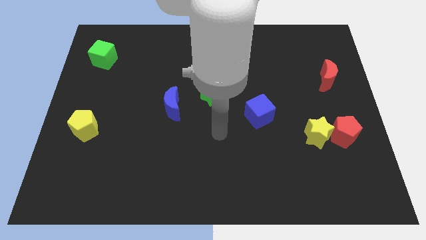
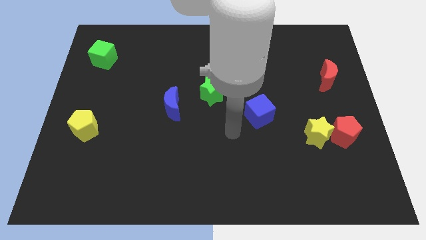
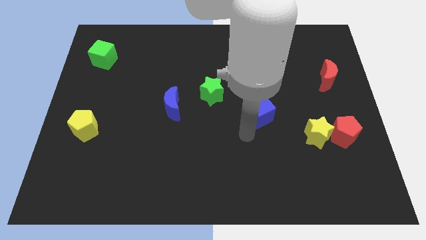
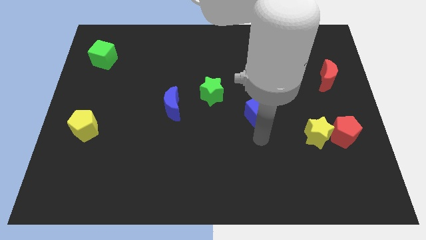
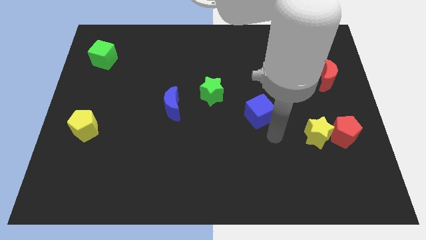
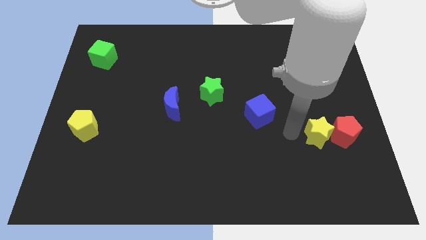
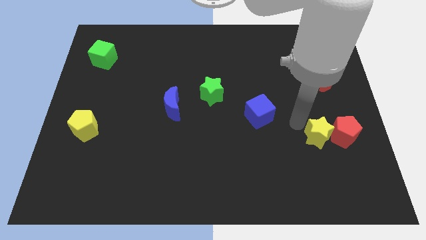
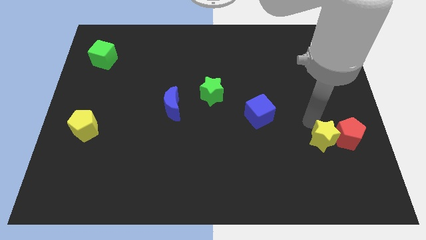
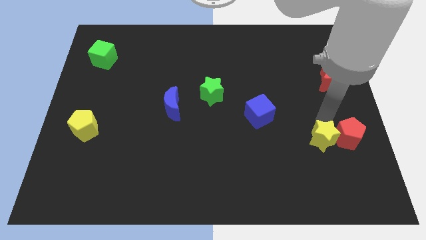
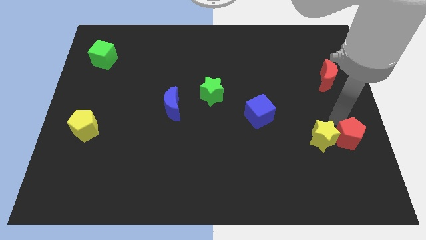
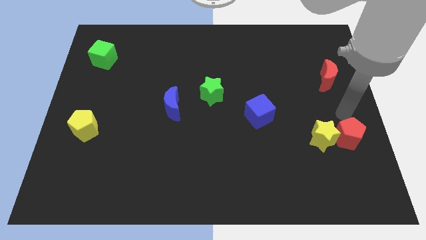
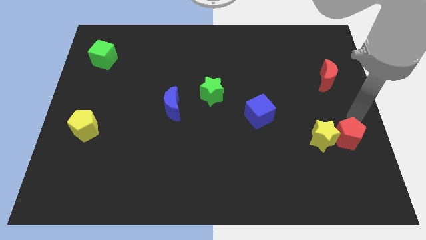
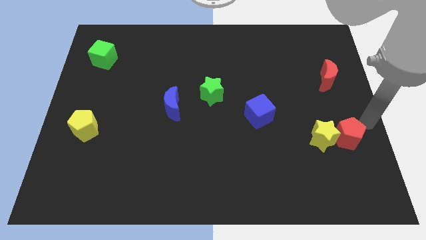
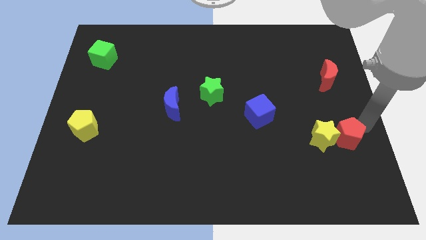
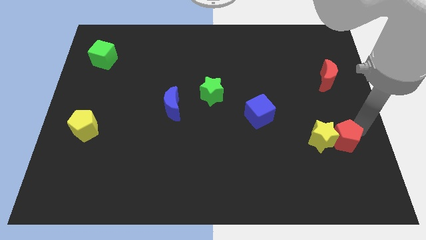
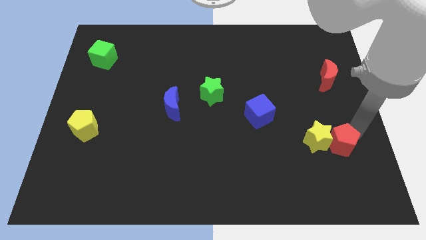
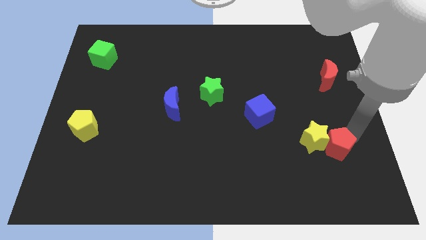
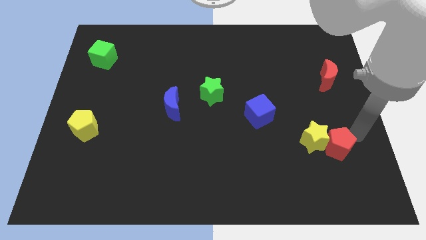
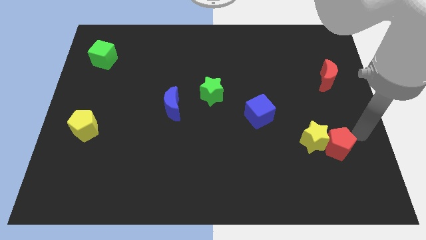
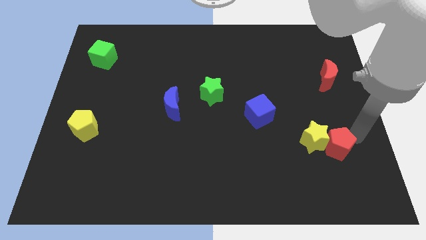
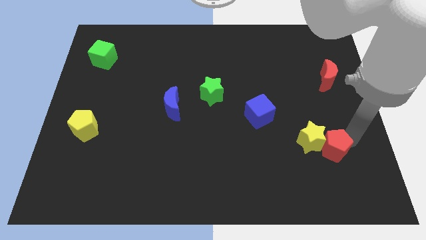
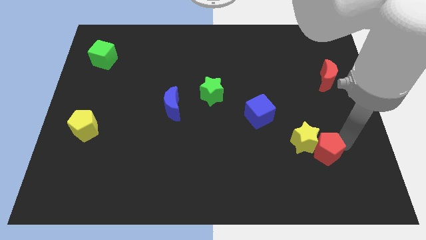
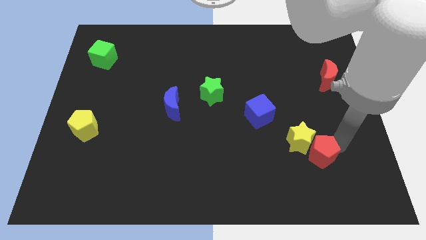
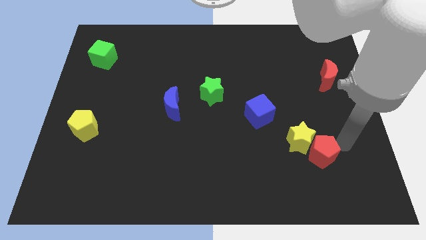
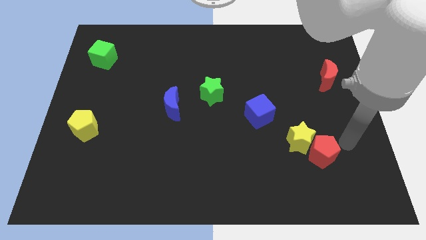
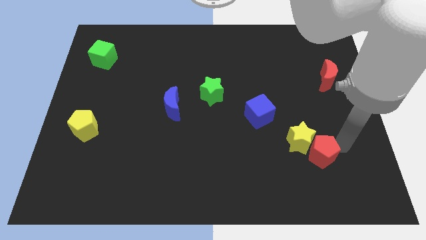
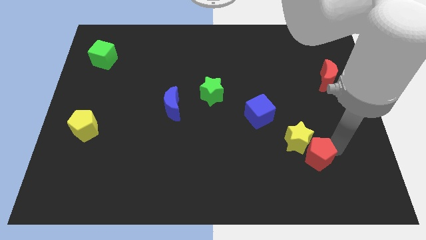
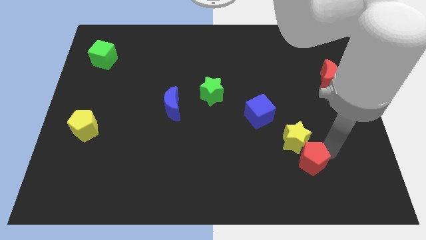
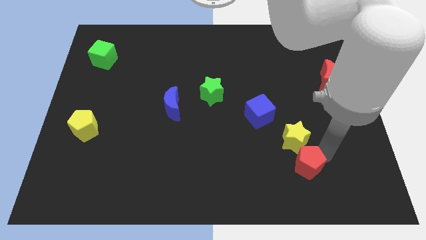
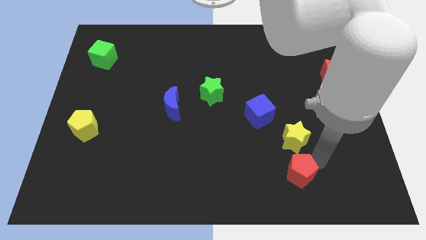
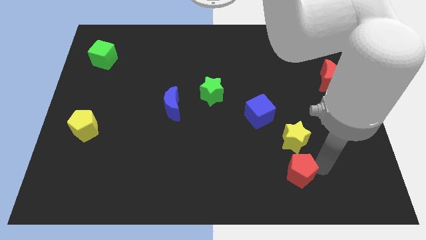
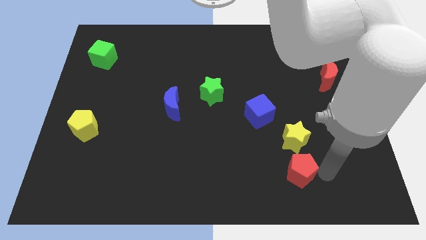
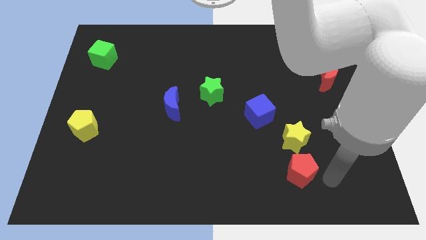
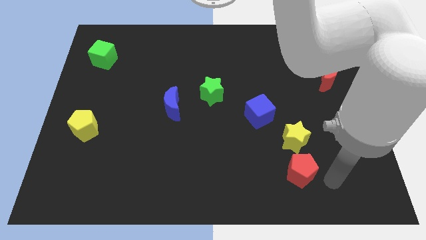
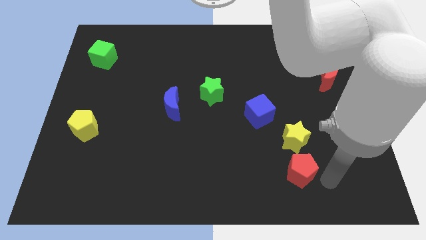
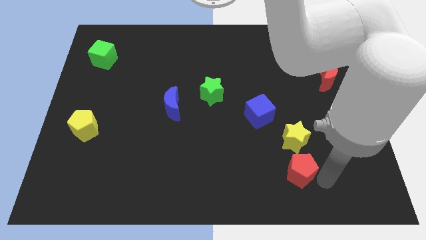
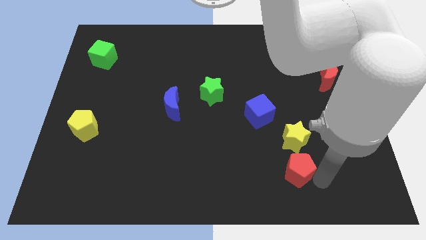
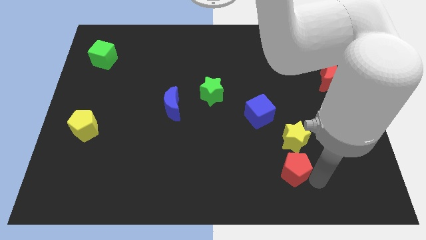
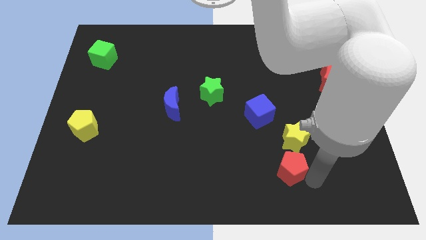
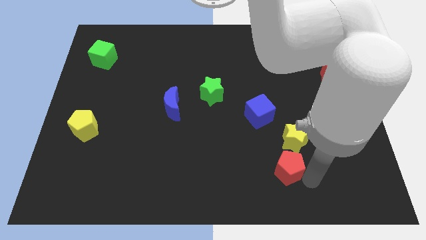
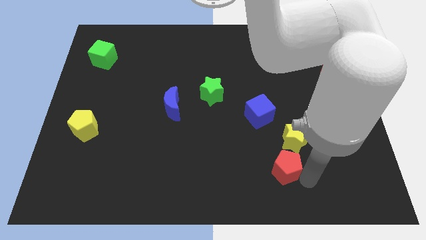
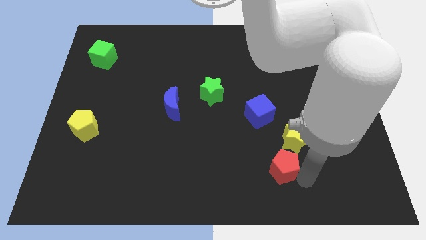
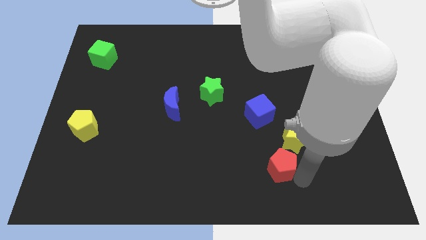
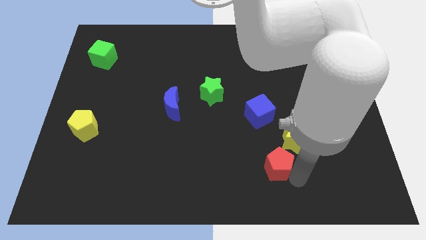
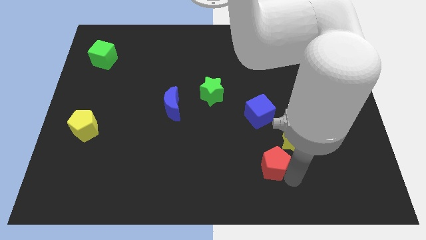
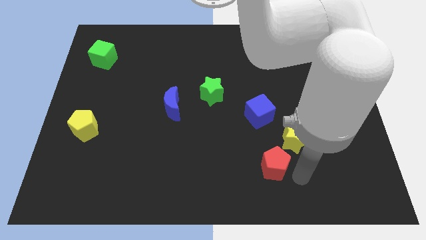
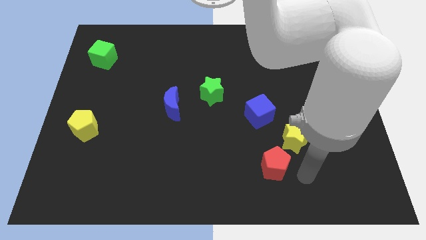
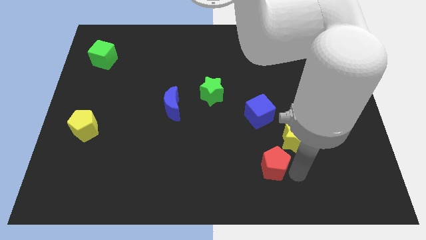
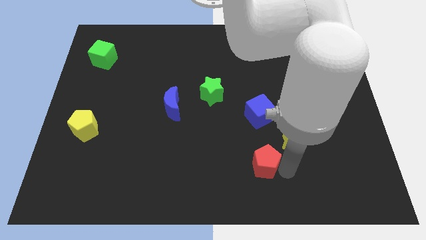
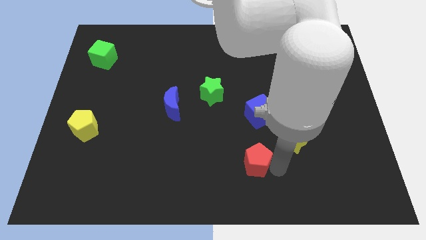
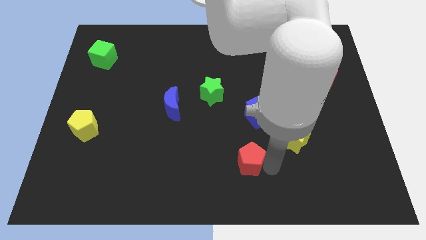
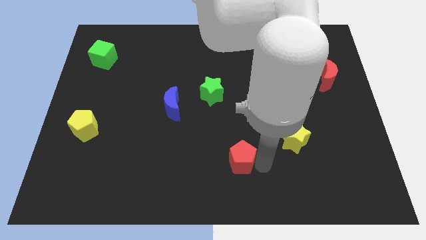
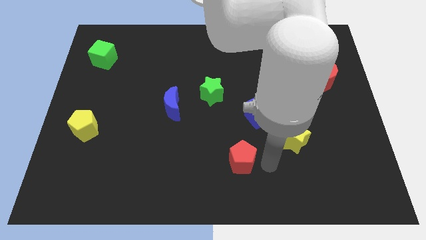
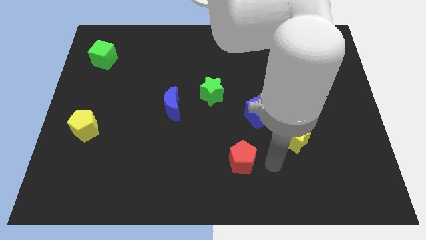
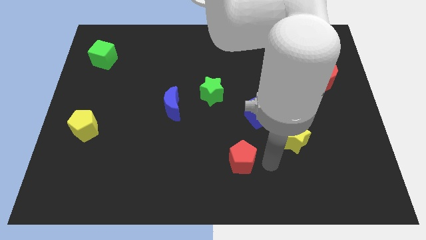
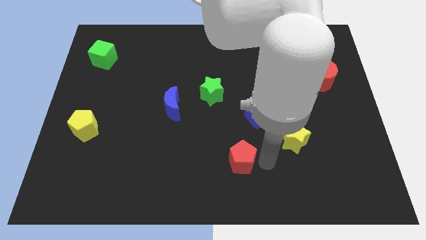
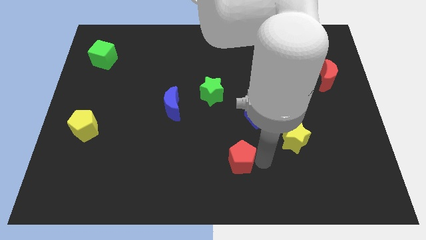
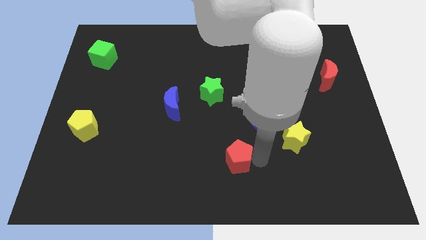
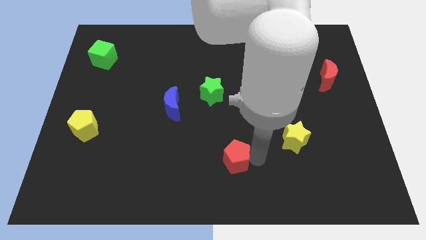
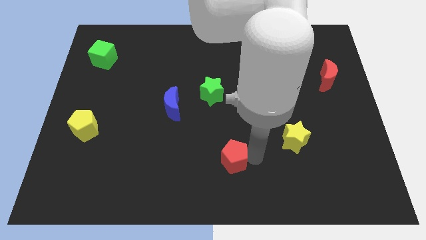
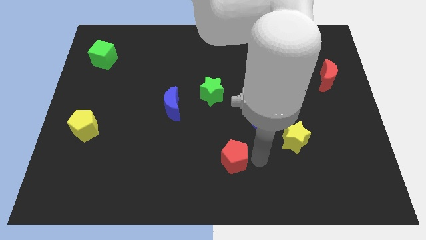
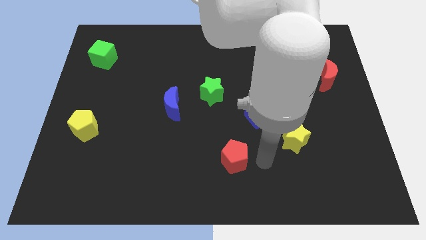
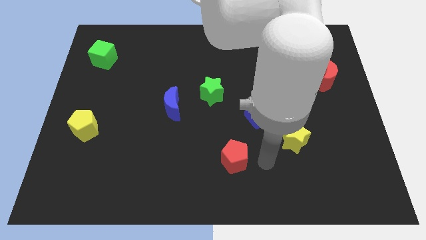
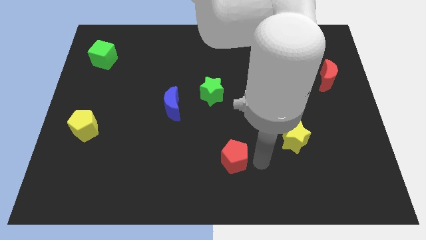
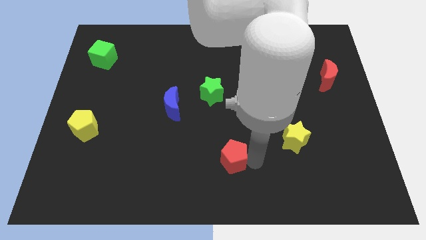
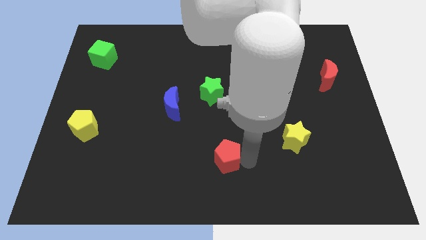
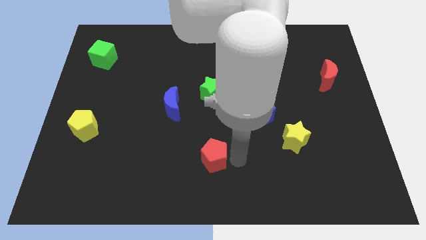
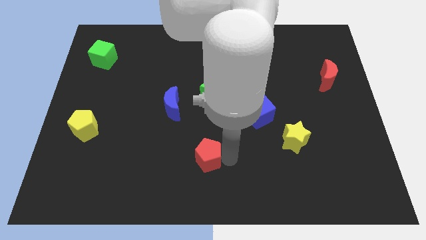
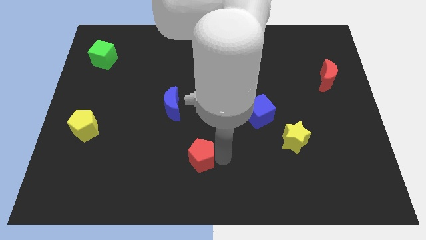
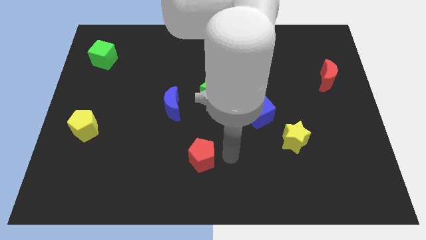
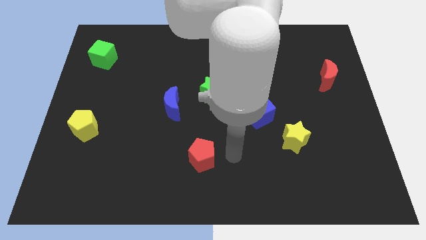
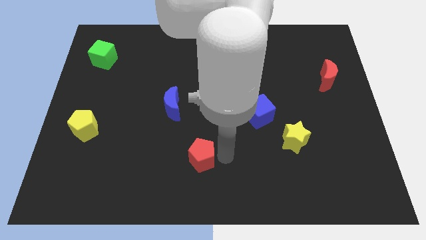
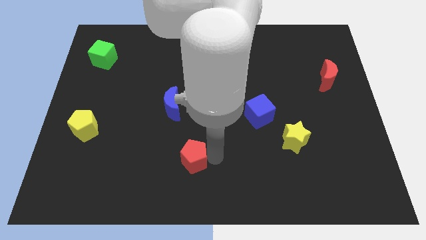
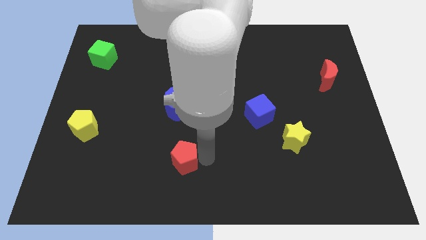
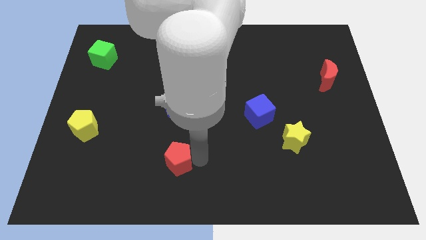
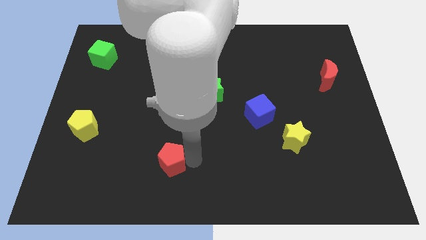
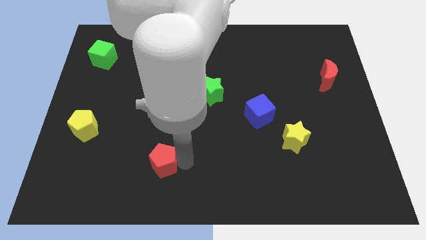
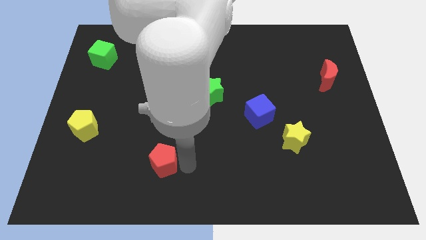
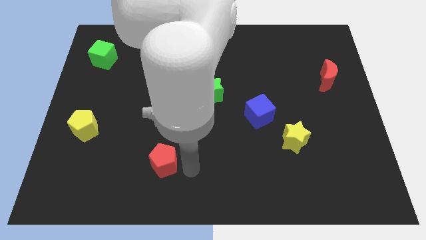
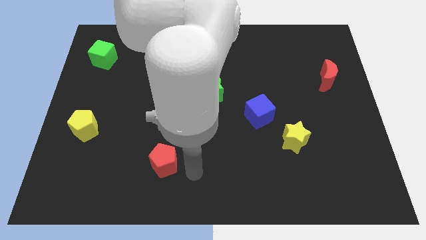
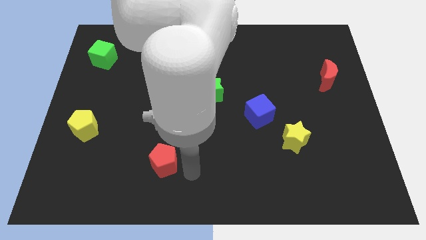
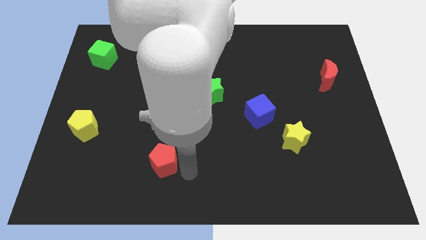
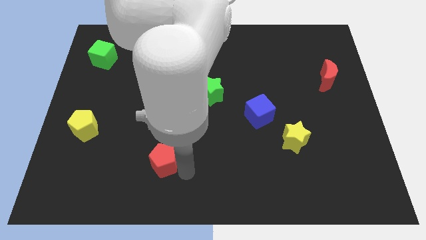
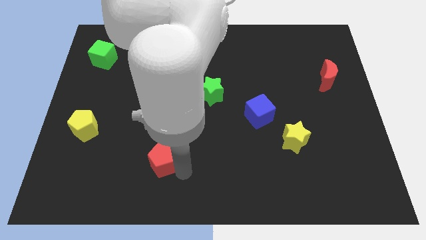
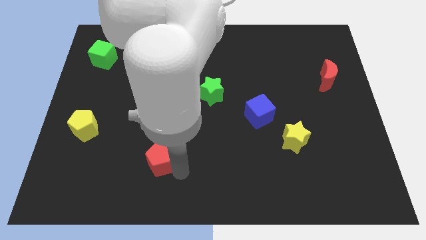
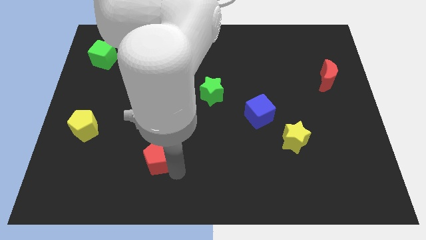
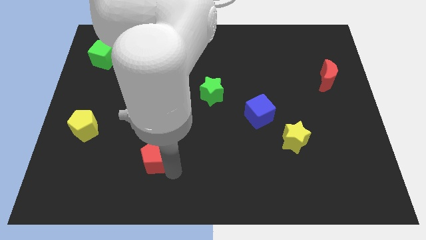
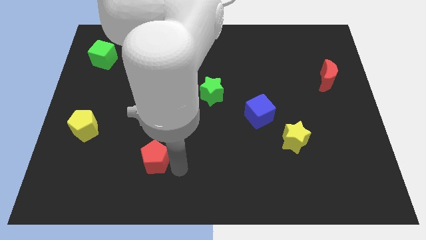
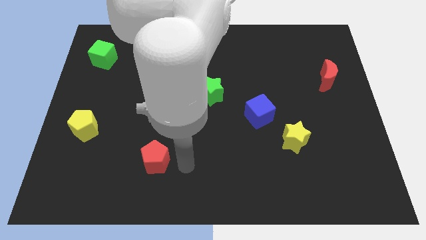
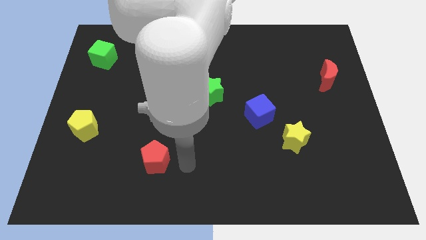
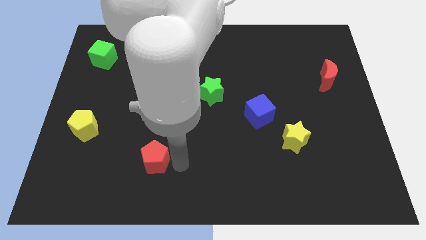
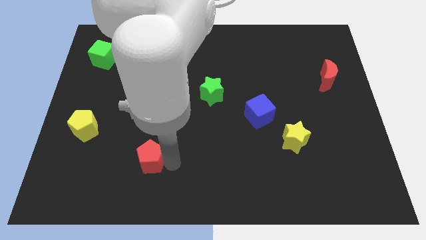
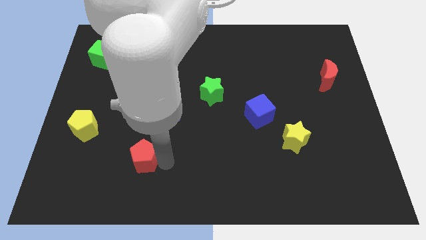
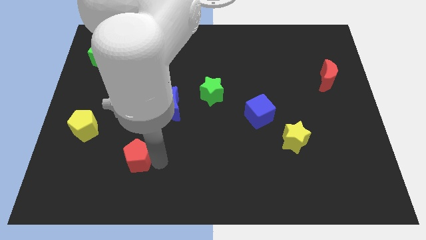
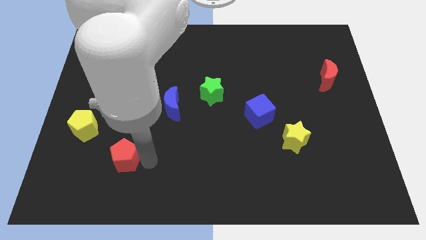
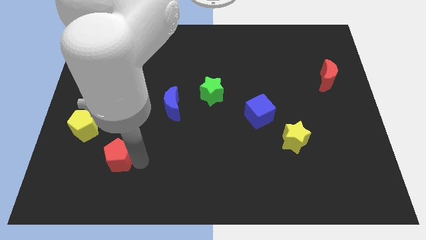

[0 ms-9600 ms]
push the red pentagon to the bottom right of the yellow pentagon
